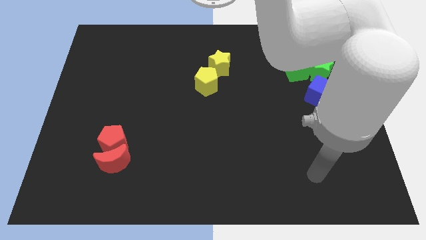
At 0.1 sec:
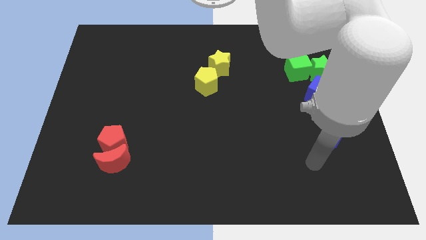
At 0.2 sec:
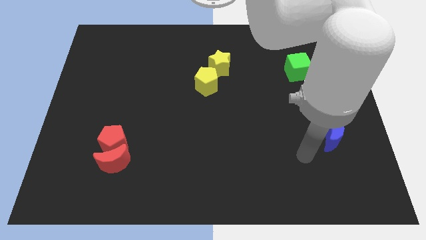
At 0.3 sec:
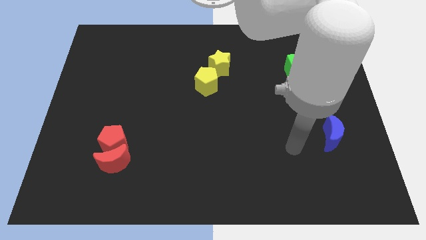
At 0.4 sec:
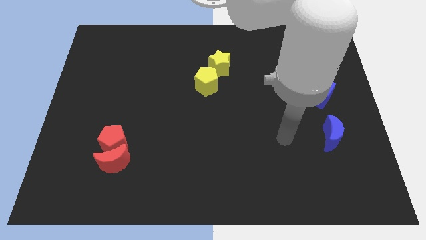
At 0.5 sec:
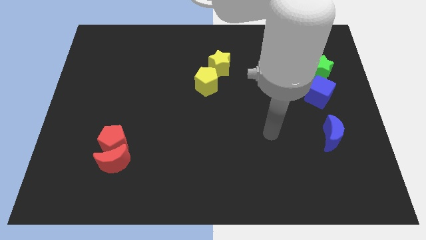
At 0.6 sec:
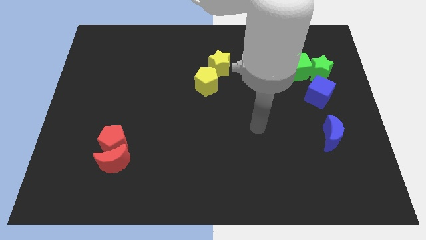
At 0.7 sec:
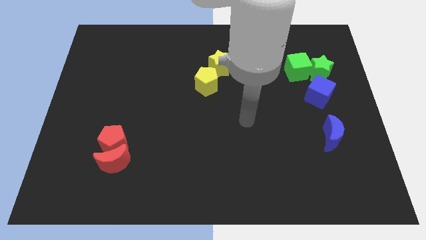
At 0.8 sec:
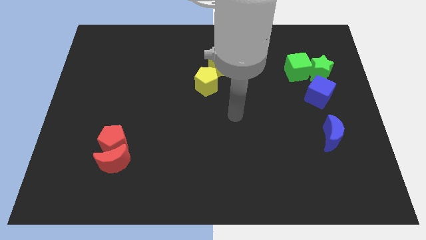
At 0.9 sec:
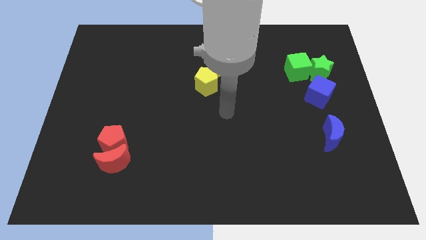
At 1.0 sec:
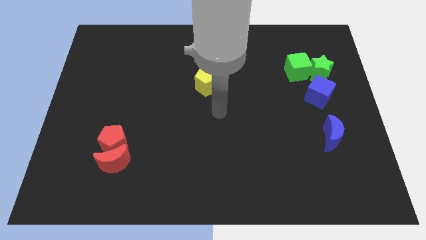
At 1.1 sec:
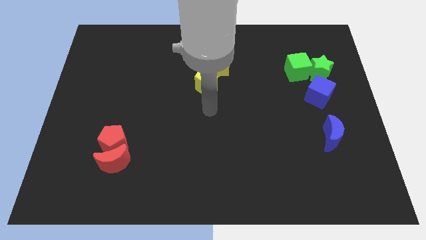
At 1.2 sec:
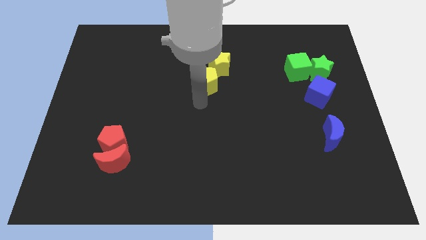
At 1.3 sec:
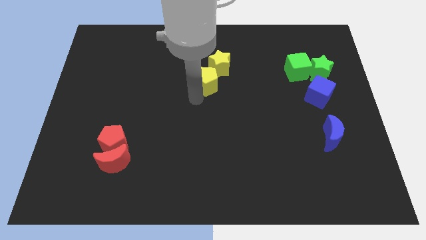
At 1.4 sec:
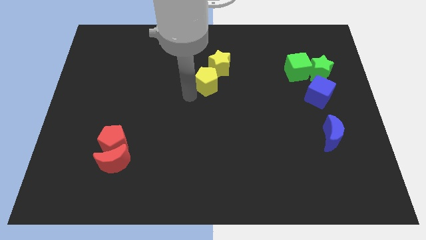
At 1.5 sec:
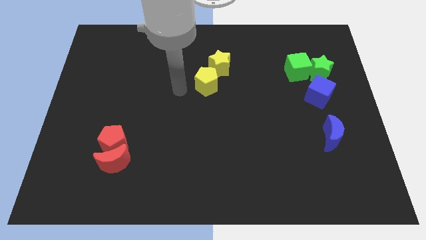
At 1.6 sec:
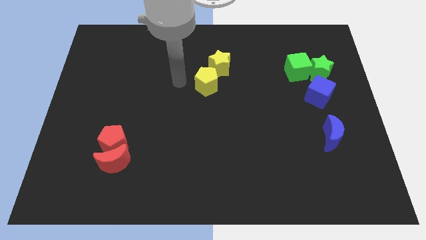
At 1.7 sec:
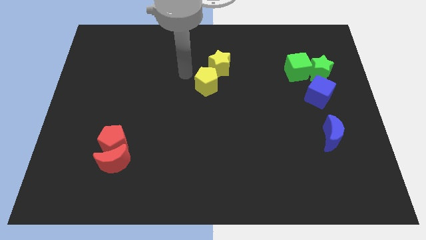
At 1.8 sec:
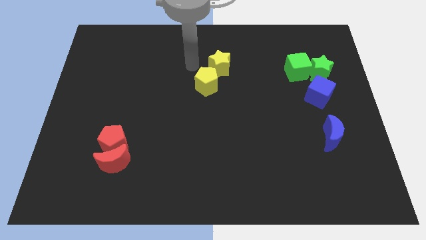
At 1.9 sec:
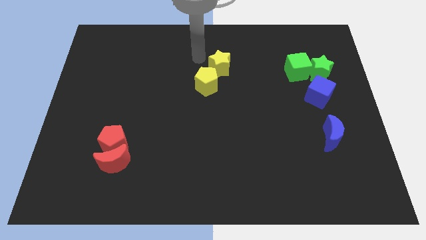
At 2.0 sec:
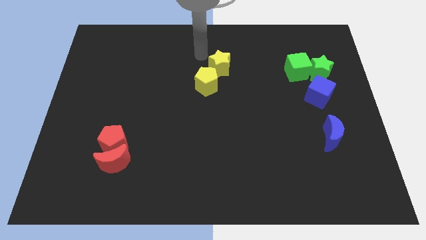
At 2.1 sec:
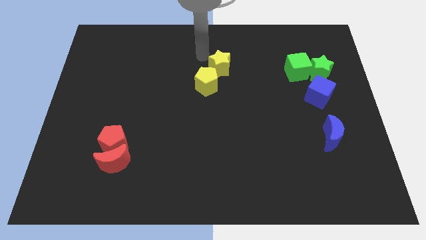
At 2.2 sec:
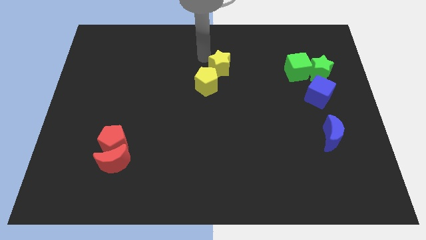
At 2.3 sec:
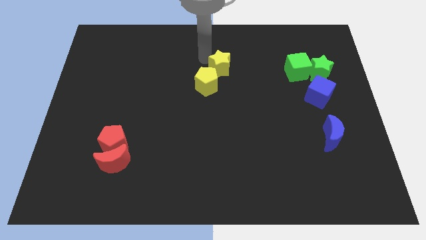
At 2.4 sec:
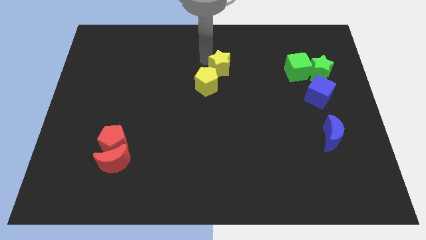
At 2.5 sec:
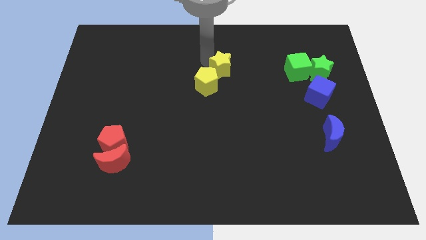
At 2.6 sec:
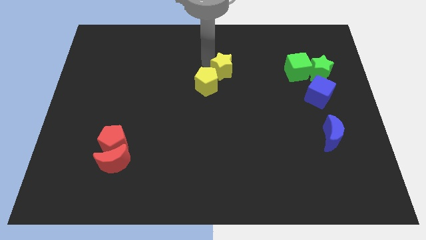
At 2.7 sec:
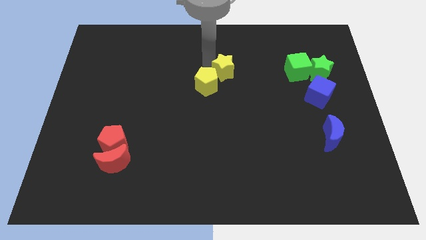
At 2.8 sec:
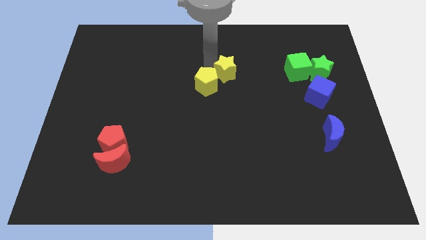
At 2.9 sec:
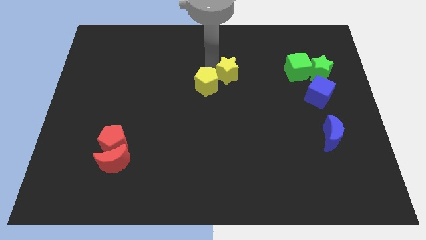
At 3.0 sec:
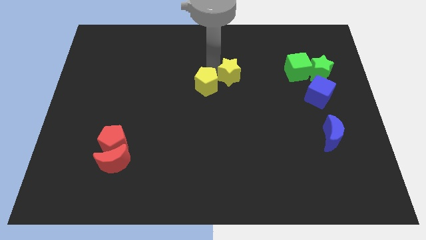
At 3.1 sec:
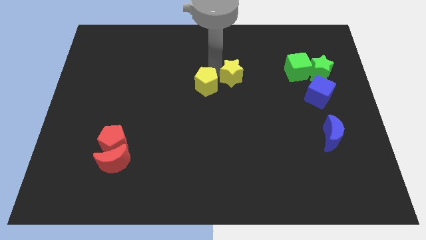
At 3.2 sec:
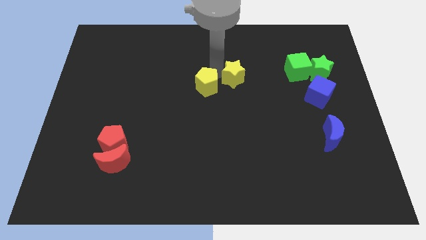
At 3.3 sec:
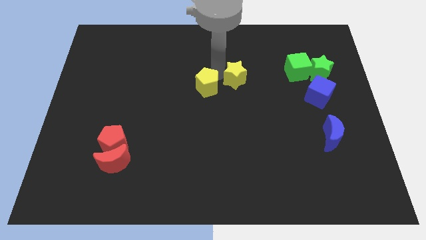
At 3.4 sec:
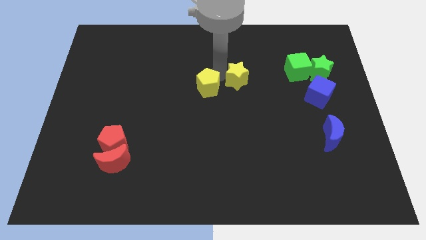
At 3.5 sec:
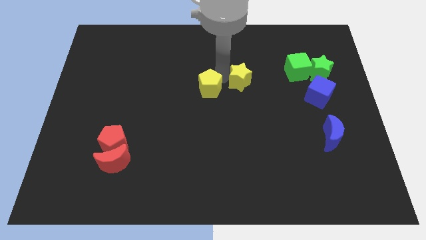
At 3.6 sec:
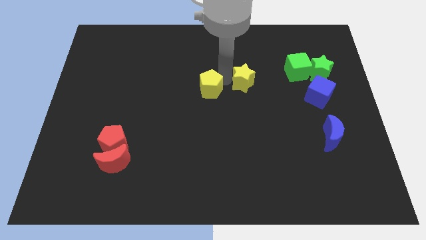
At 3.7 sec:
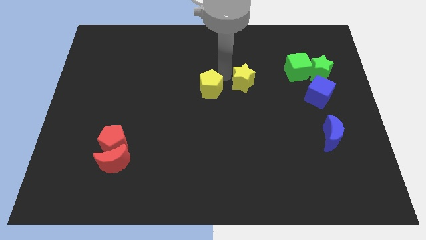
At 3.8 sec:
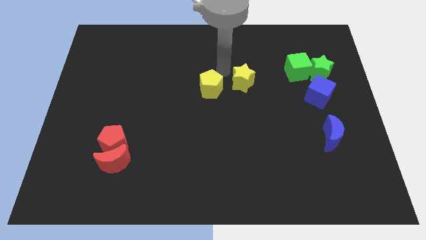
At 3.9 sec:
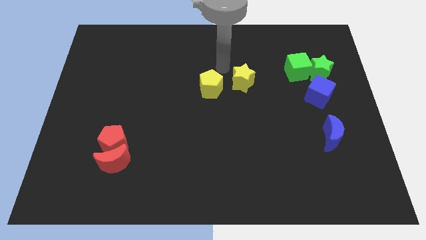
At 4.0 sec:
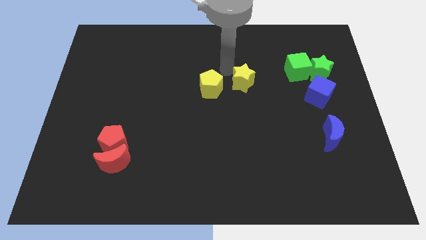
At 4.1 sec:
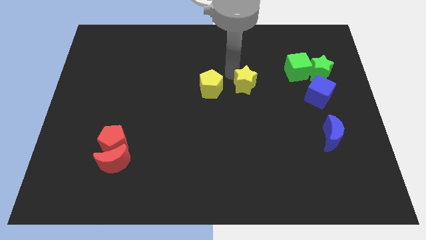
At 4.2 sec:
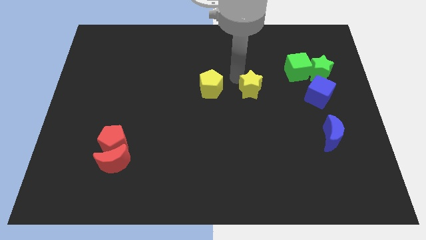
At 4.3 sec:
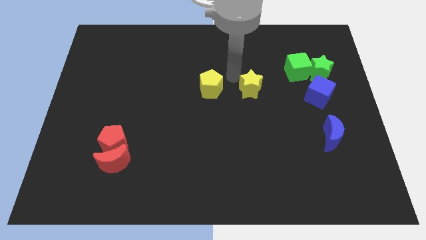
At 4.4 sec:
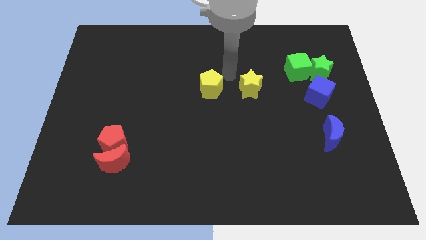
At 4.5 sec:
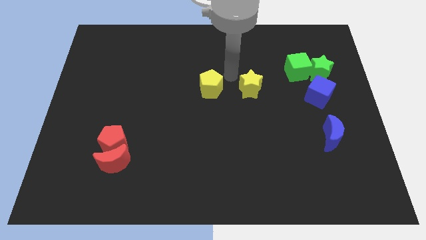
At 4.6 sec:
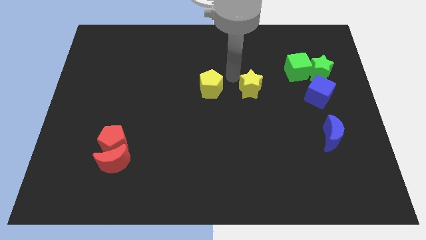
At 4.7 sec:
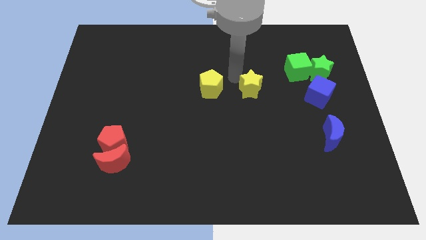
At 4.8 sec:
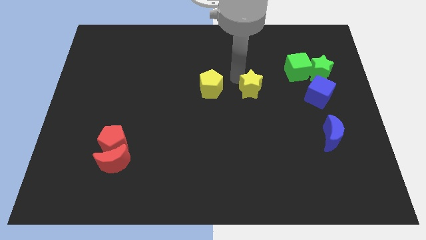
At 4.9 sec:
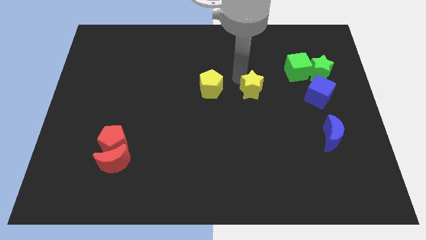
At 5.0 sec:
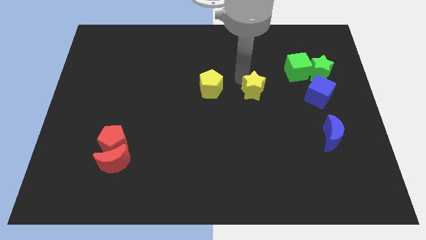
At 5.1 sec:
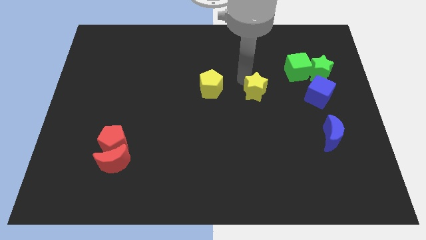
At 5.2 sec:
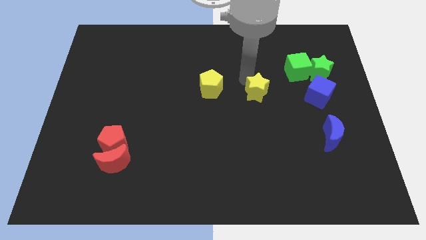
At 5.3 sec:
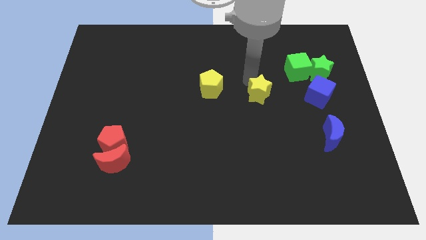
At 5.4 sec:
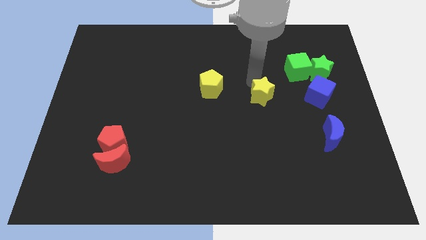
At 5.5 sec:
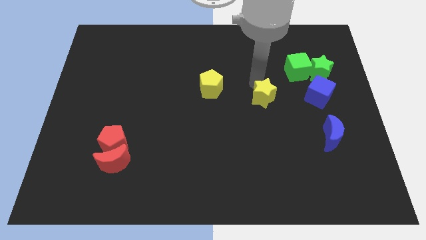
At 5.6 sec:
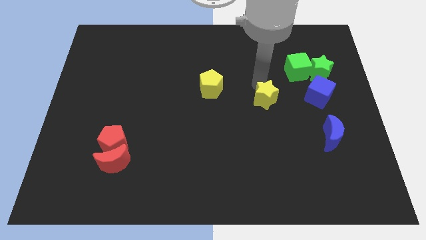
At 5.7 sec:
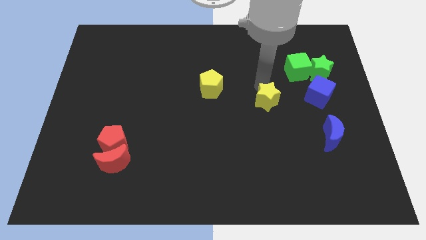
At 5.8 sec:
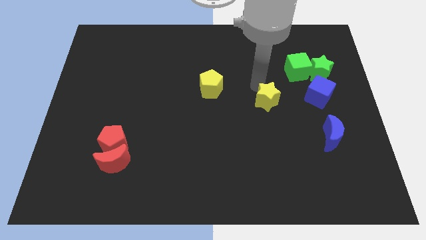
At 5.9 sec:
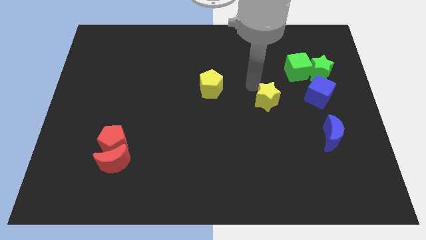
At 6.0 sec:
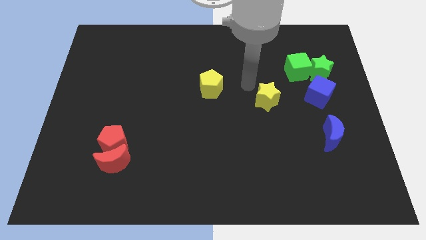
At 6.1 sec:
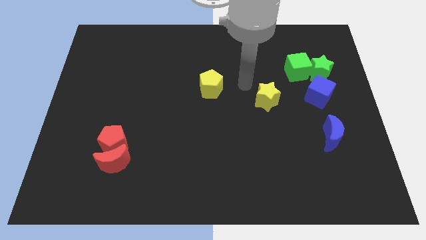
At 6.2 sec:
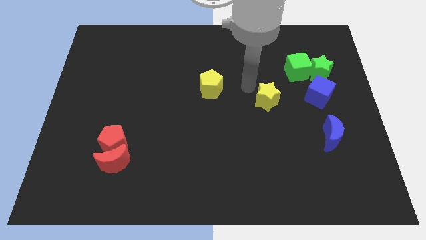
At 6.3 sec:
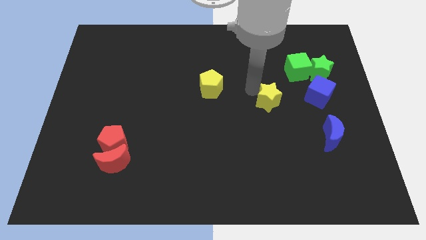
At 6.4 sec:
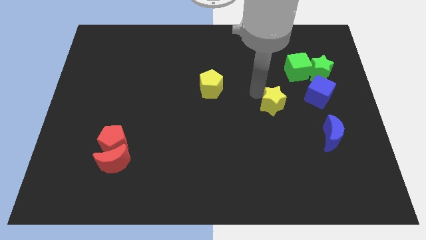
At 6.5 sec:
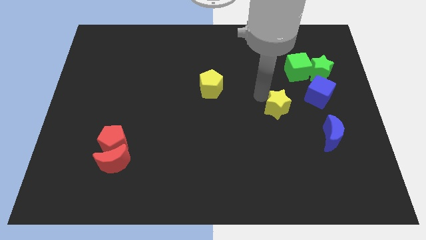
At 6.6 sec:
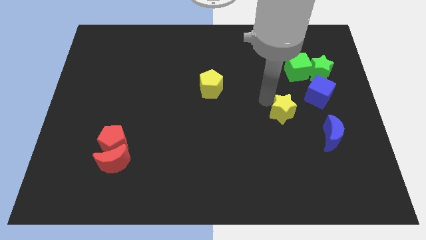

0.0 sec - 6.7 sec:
put the yellow star diagonally up and to the left of the blue moon
